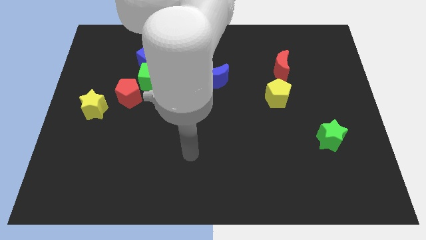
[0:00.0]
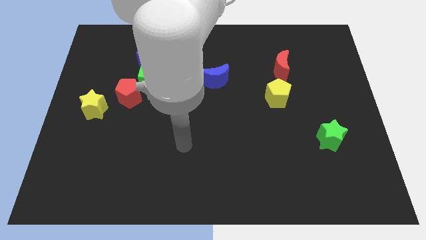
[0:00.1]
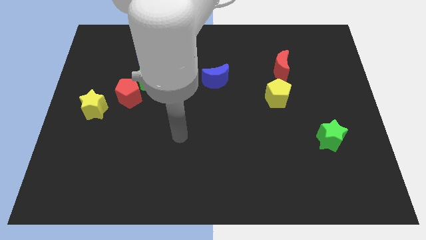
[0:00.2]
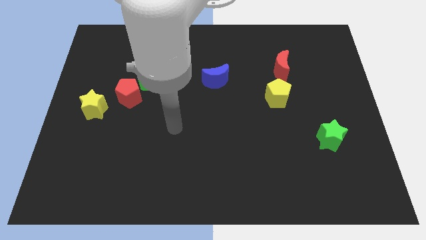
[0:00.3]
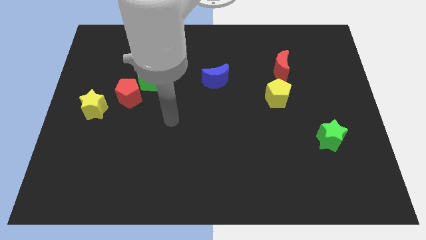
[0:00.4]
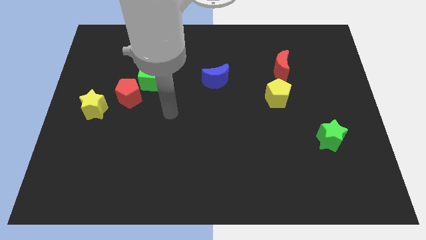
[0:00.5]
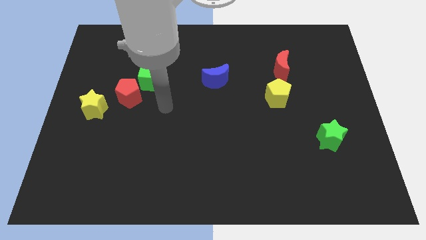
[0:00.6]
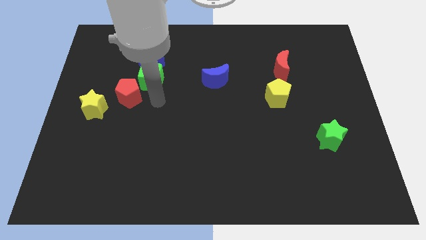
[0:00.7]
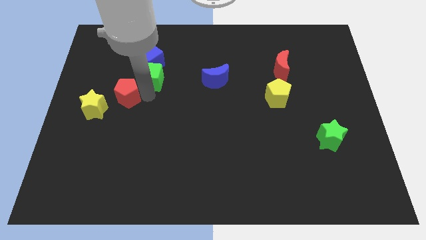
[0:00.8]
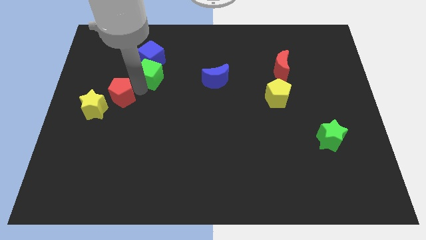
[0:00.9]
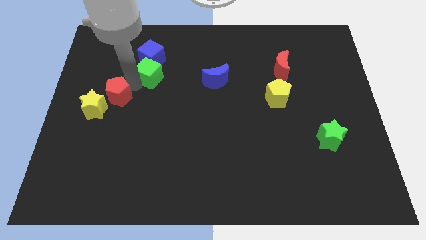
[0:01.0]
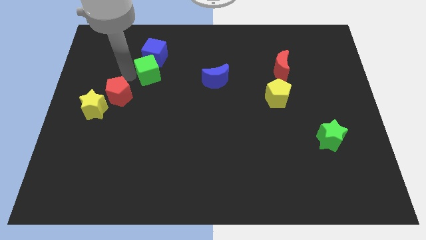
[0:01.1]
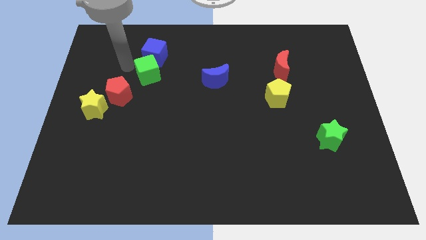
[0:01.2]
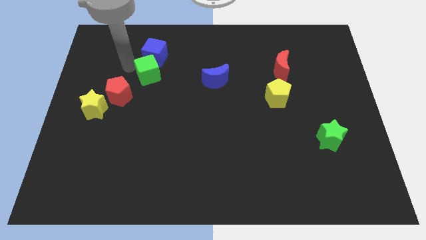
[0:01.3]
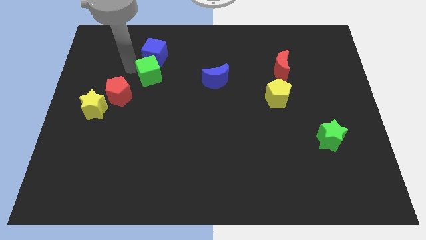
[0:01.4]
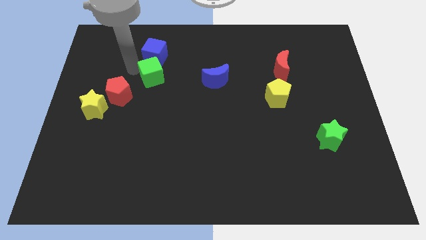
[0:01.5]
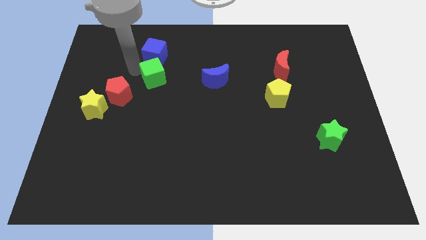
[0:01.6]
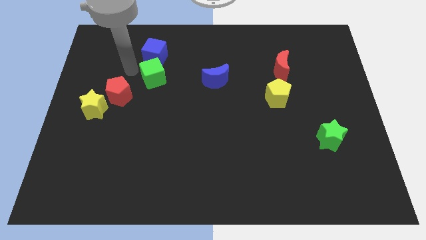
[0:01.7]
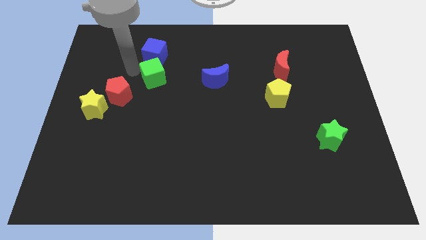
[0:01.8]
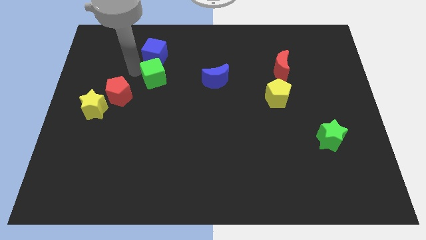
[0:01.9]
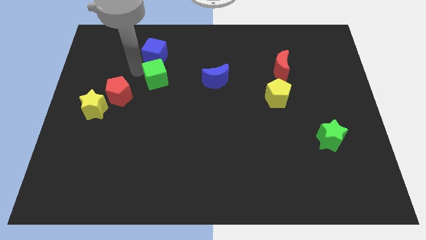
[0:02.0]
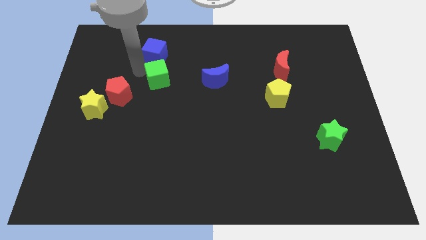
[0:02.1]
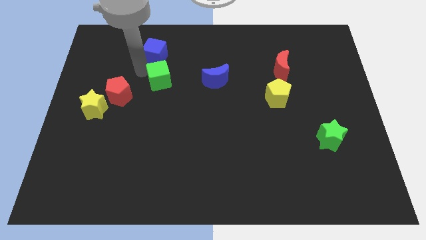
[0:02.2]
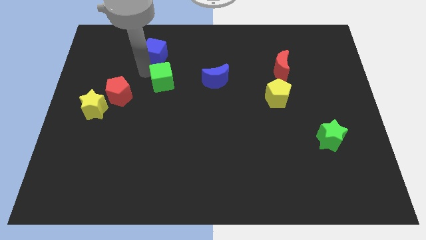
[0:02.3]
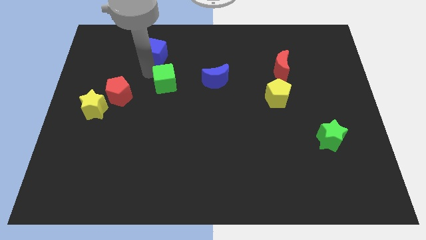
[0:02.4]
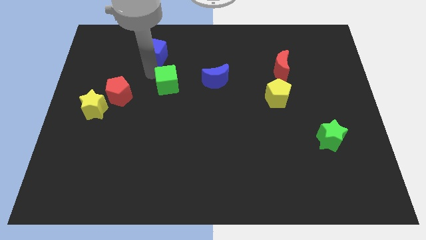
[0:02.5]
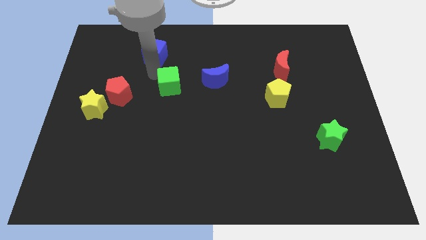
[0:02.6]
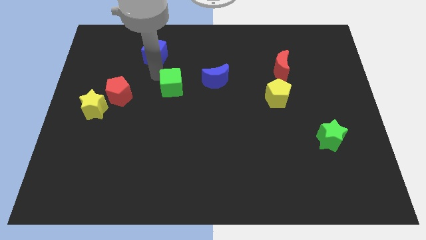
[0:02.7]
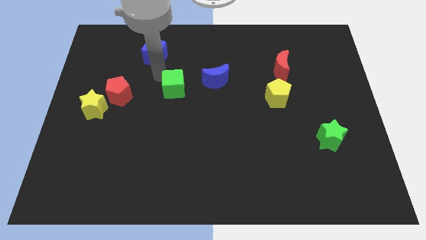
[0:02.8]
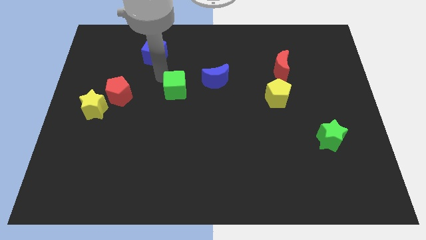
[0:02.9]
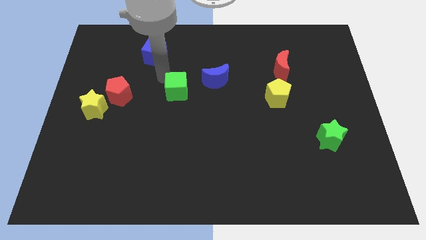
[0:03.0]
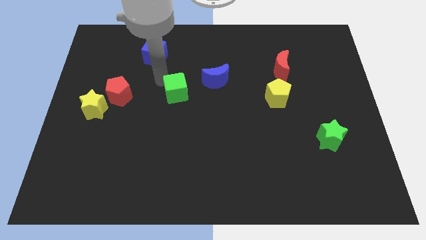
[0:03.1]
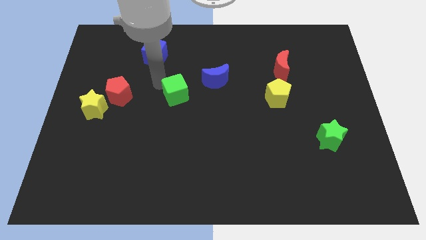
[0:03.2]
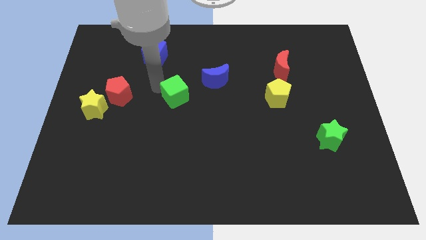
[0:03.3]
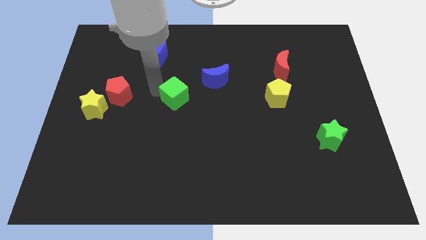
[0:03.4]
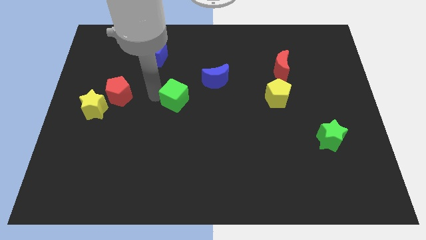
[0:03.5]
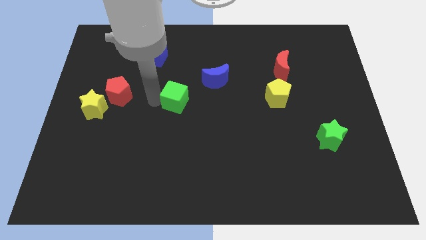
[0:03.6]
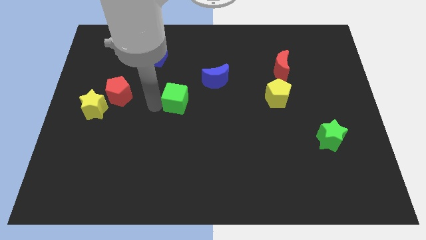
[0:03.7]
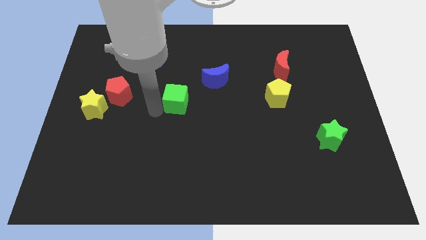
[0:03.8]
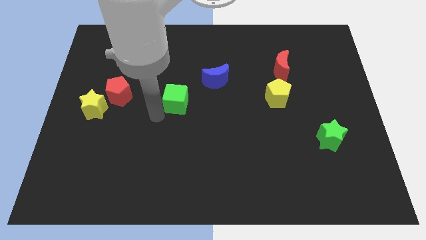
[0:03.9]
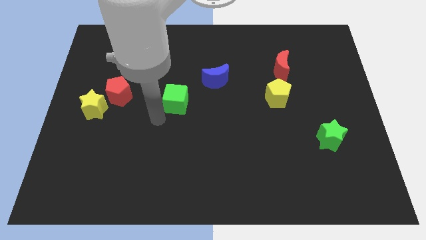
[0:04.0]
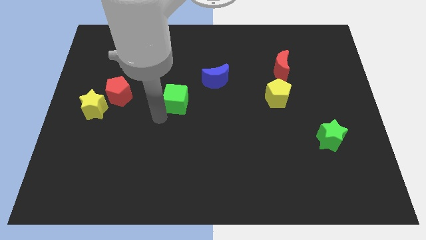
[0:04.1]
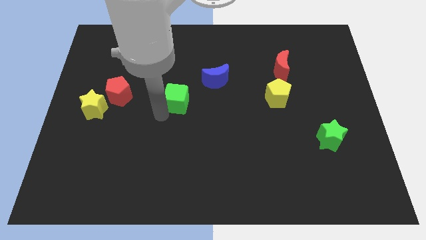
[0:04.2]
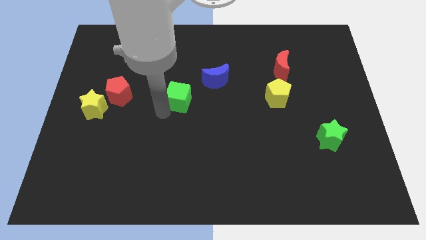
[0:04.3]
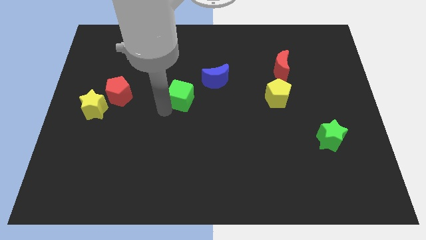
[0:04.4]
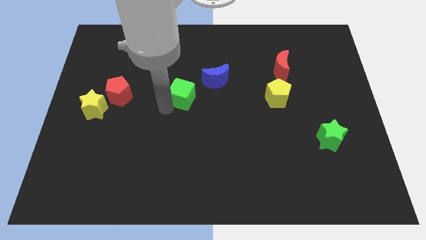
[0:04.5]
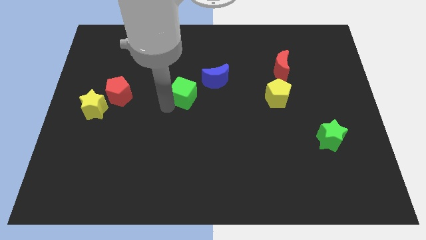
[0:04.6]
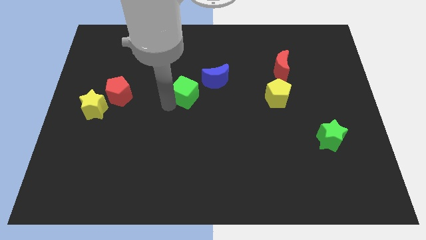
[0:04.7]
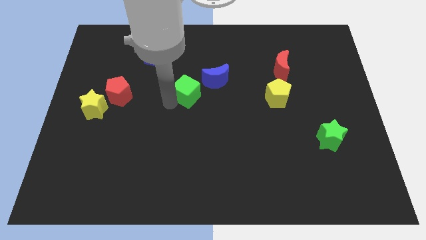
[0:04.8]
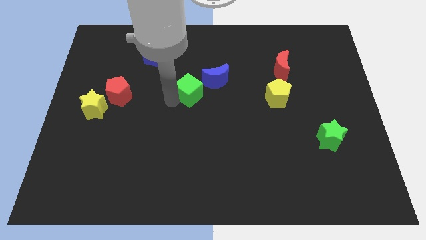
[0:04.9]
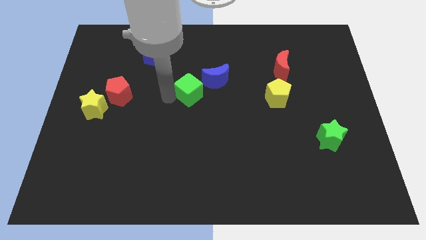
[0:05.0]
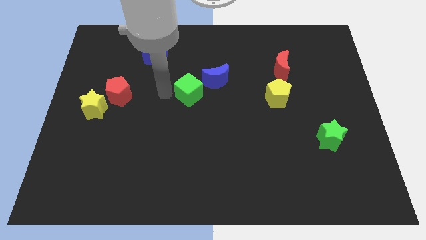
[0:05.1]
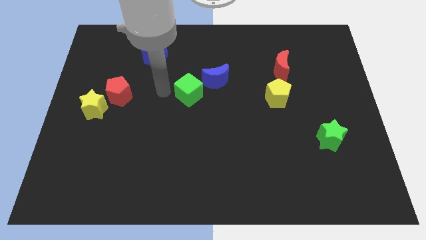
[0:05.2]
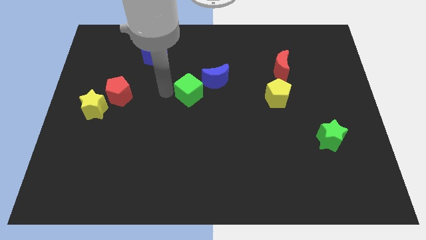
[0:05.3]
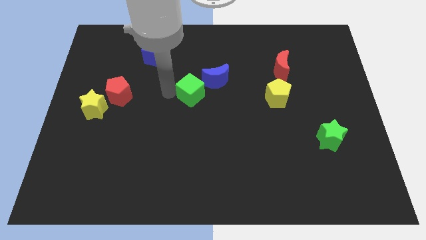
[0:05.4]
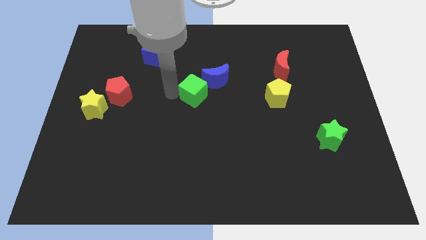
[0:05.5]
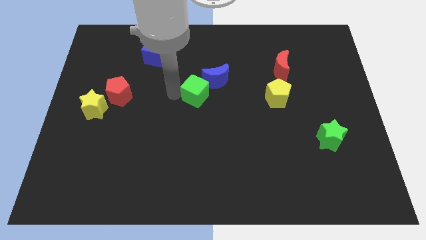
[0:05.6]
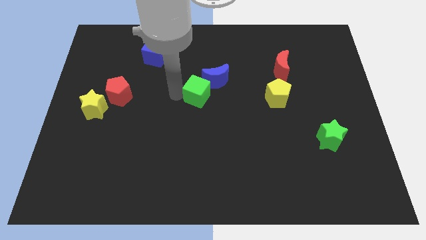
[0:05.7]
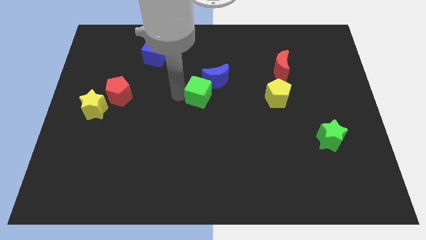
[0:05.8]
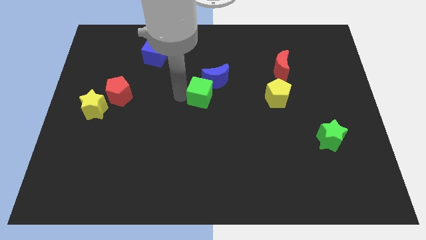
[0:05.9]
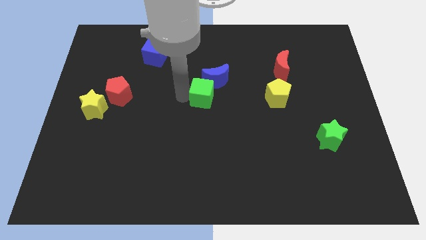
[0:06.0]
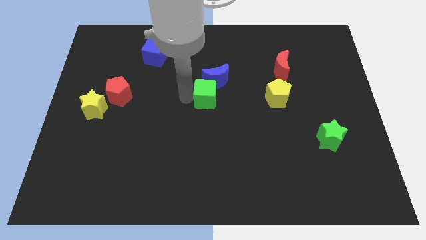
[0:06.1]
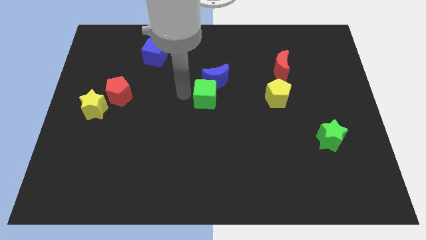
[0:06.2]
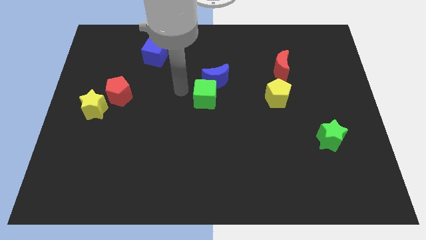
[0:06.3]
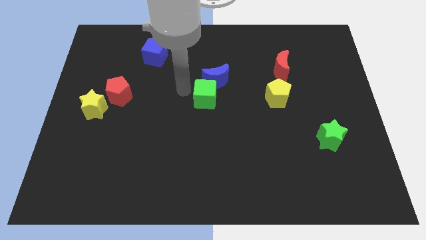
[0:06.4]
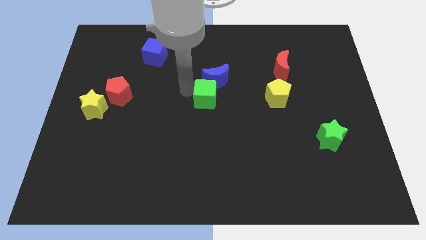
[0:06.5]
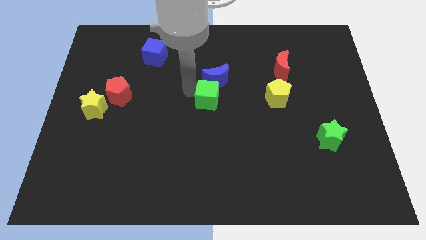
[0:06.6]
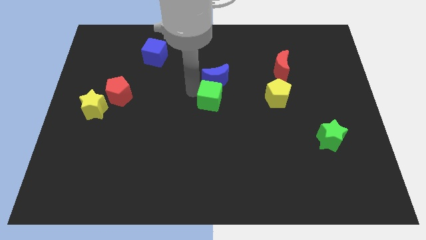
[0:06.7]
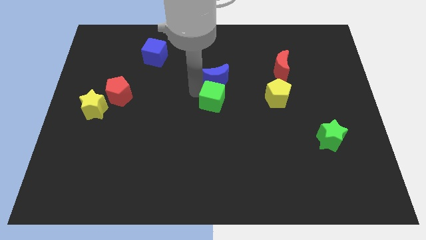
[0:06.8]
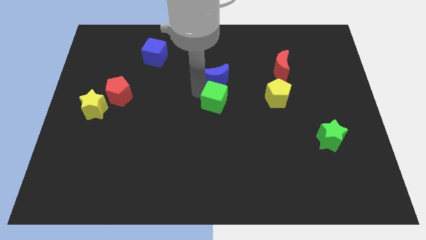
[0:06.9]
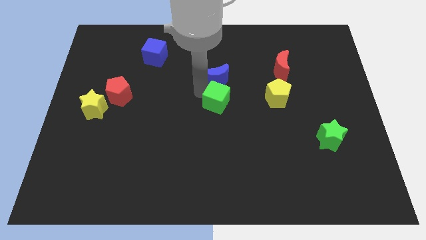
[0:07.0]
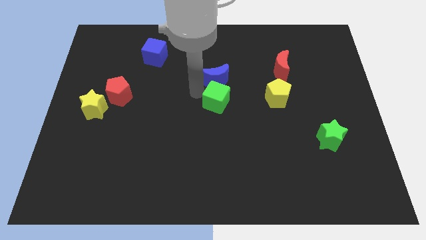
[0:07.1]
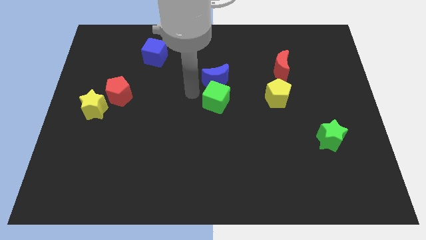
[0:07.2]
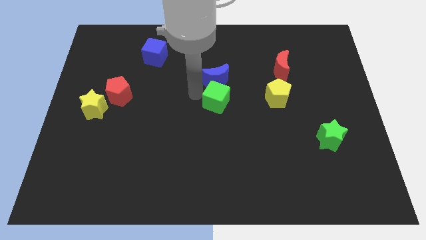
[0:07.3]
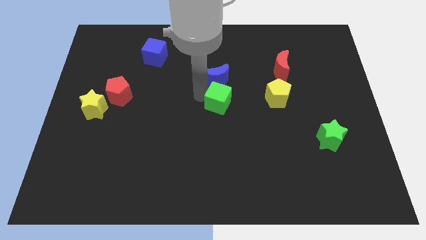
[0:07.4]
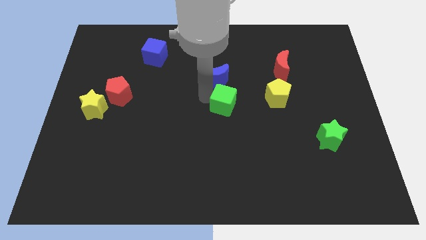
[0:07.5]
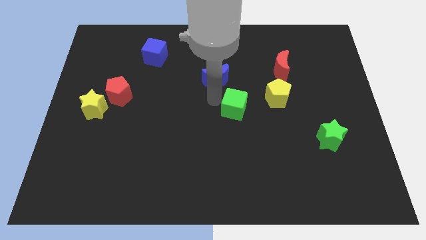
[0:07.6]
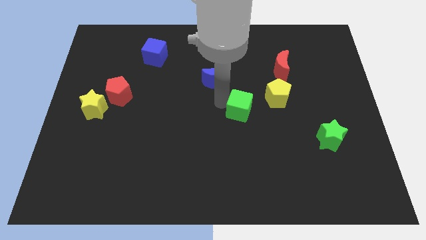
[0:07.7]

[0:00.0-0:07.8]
slide the green cube to the bottom left side of the yellow pentagon
